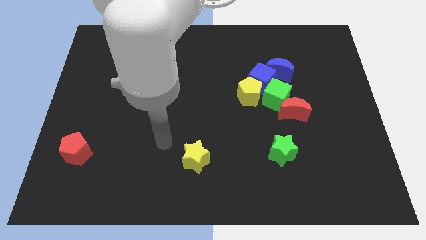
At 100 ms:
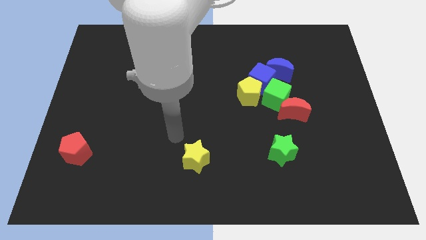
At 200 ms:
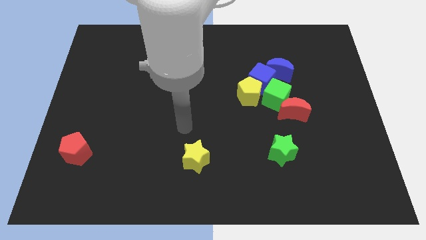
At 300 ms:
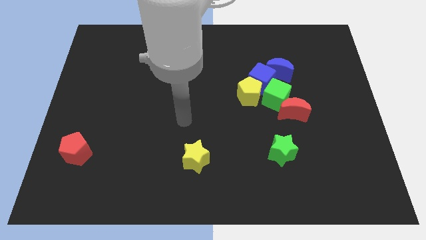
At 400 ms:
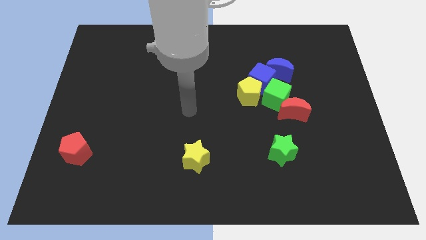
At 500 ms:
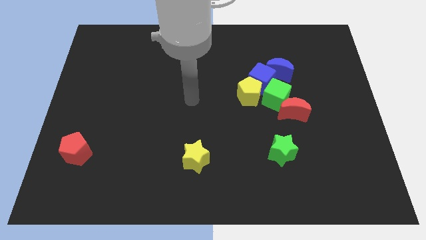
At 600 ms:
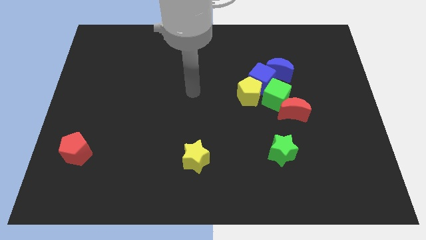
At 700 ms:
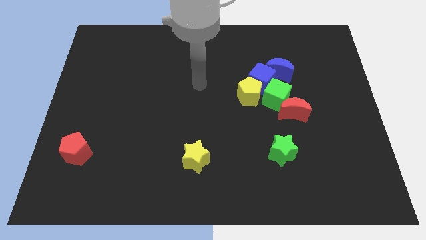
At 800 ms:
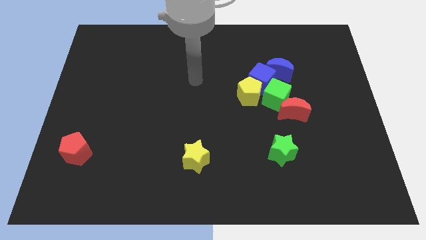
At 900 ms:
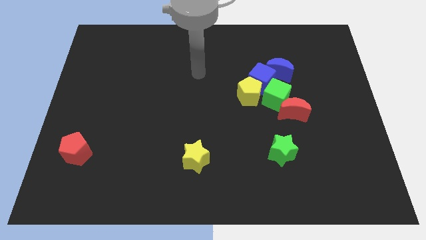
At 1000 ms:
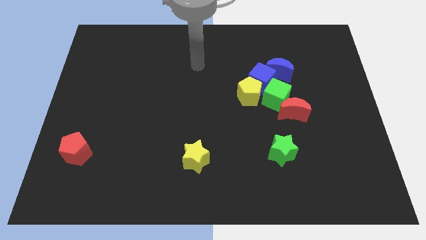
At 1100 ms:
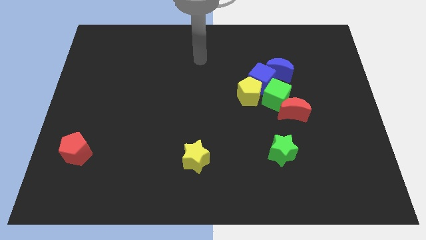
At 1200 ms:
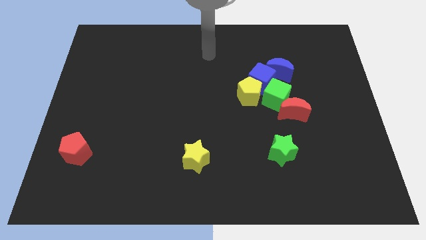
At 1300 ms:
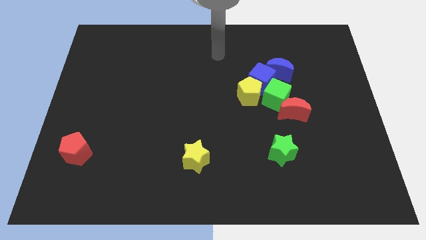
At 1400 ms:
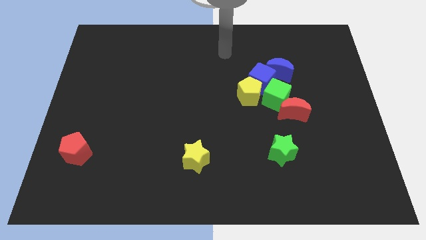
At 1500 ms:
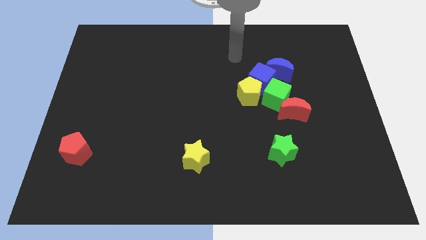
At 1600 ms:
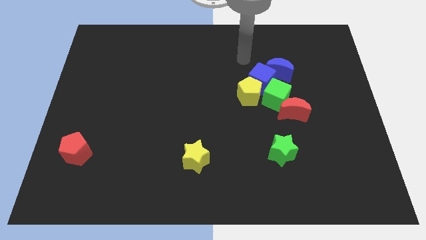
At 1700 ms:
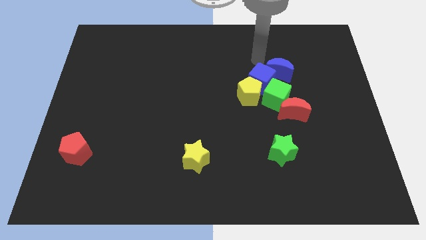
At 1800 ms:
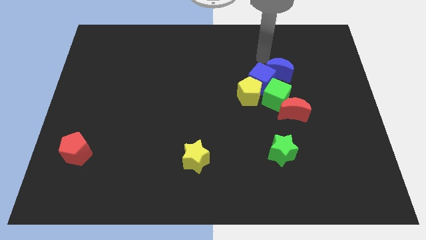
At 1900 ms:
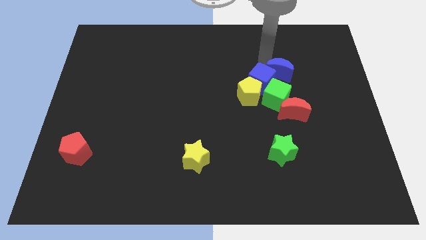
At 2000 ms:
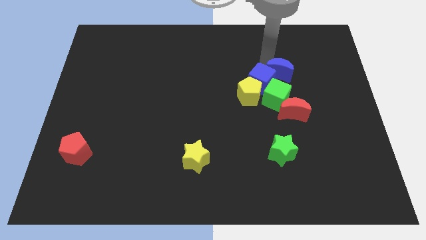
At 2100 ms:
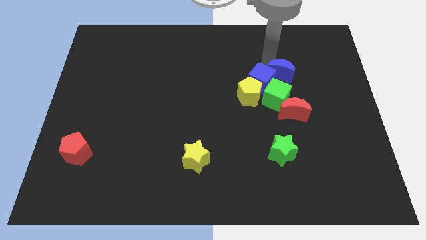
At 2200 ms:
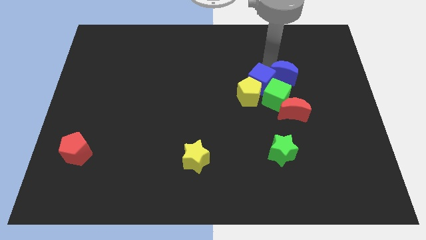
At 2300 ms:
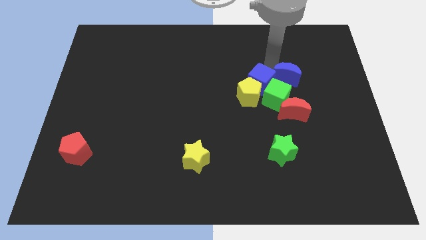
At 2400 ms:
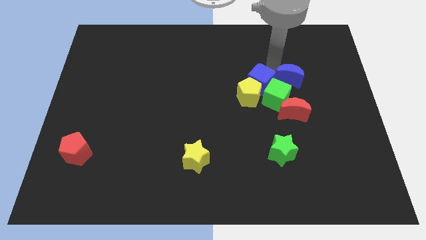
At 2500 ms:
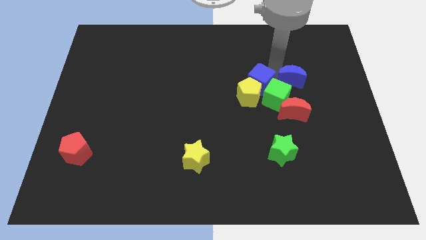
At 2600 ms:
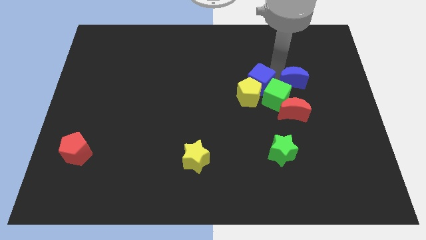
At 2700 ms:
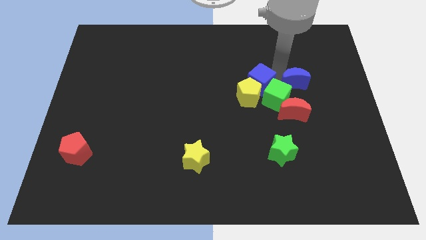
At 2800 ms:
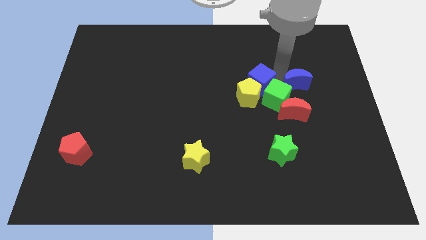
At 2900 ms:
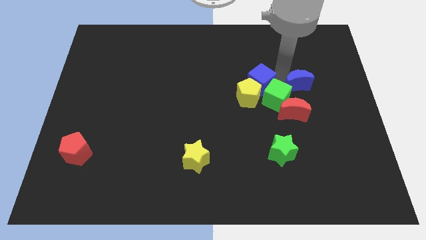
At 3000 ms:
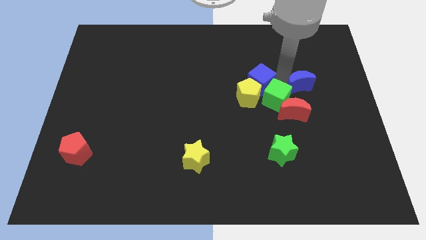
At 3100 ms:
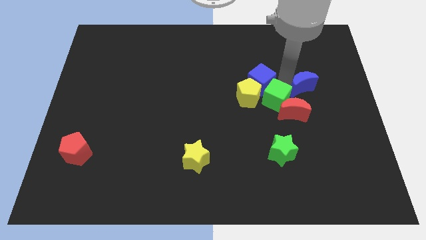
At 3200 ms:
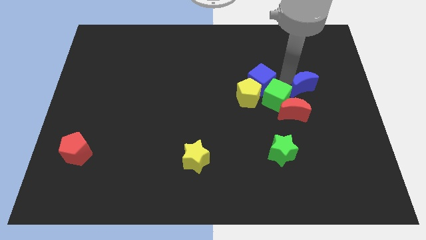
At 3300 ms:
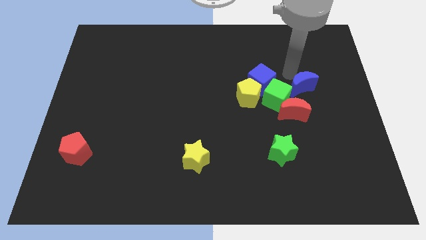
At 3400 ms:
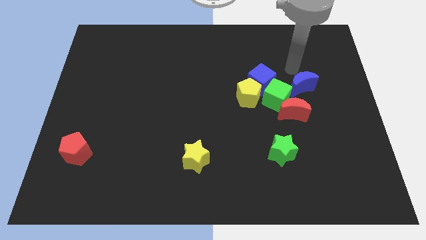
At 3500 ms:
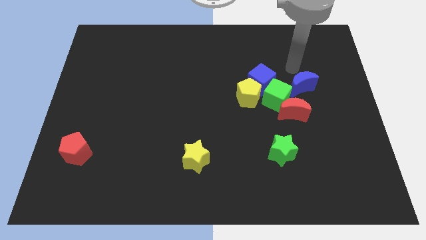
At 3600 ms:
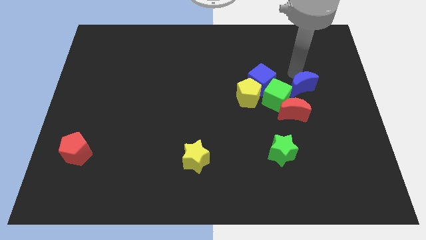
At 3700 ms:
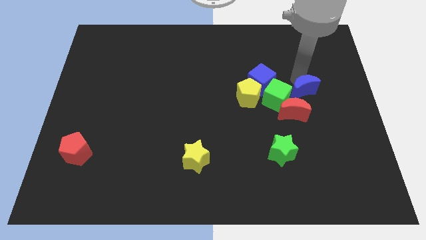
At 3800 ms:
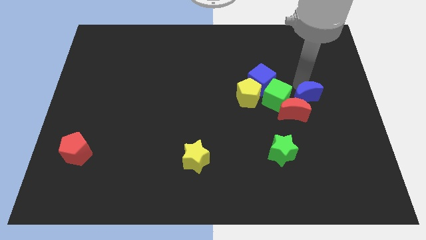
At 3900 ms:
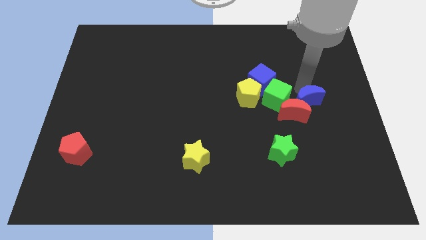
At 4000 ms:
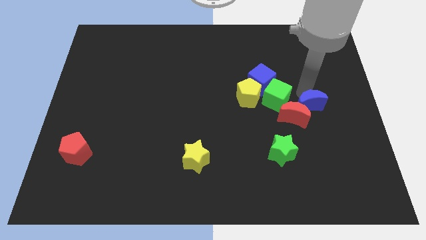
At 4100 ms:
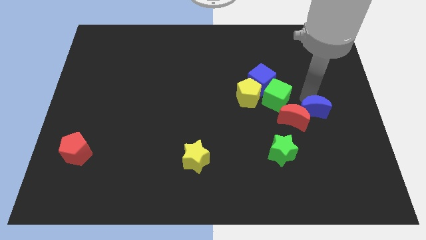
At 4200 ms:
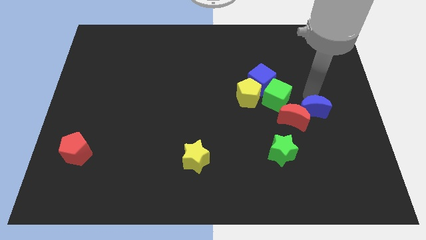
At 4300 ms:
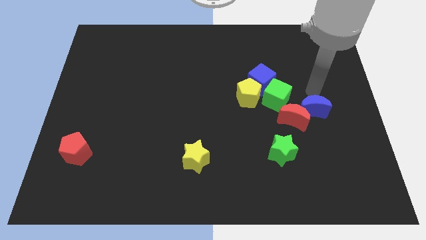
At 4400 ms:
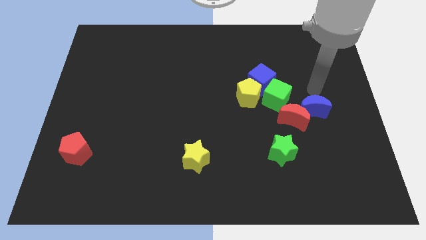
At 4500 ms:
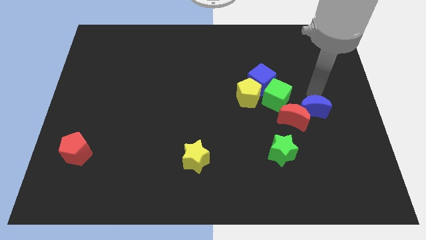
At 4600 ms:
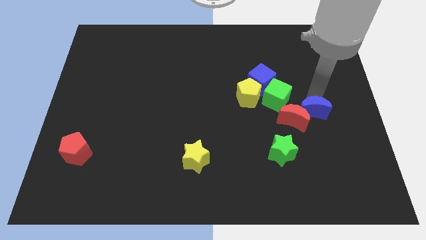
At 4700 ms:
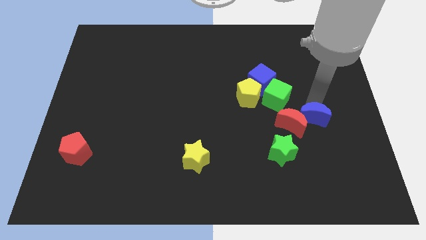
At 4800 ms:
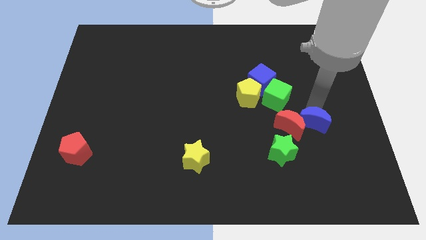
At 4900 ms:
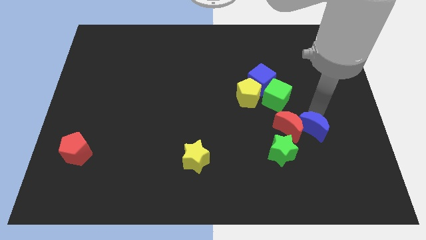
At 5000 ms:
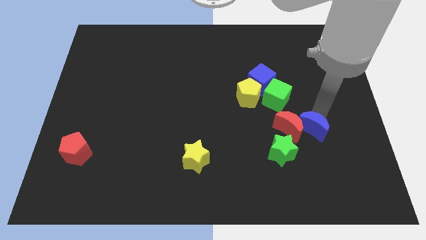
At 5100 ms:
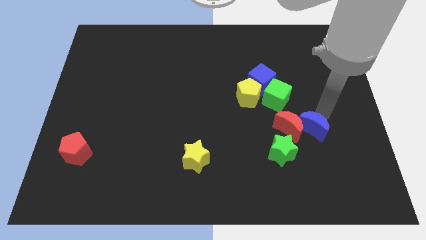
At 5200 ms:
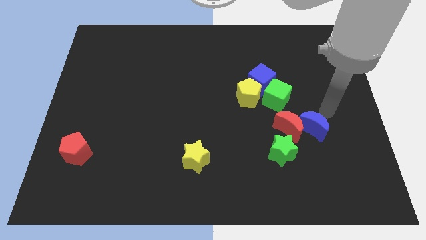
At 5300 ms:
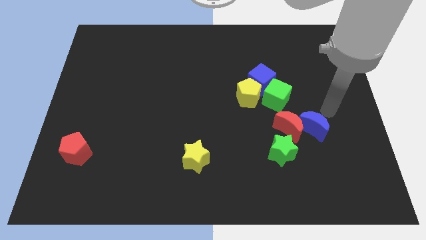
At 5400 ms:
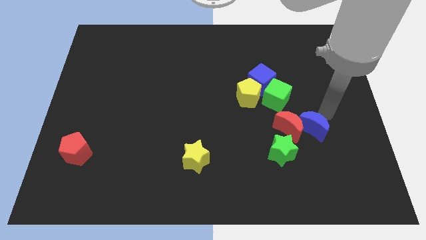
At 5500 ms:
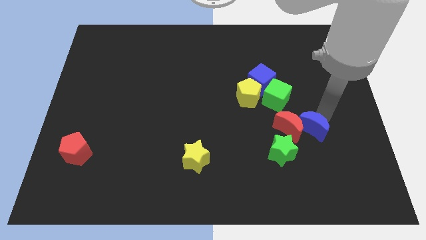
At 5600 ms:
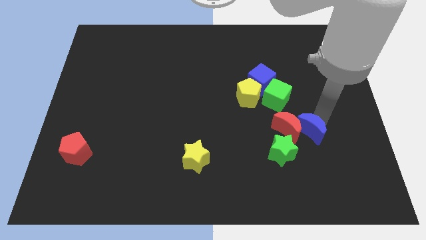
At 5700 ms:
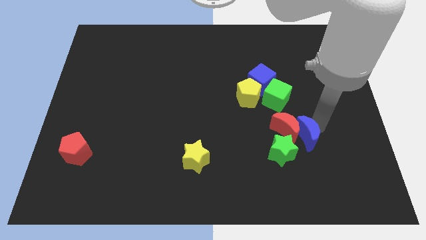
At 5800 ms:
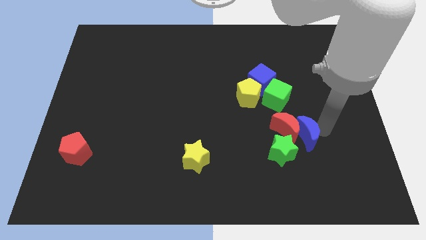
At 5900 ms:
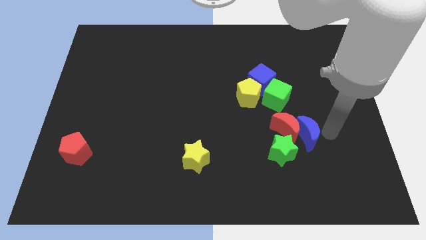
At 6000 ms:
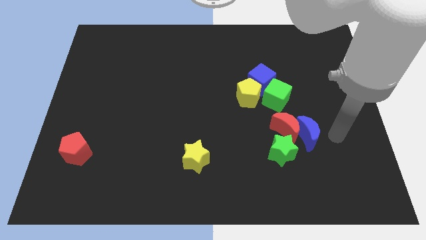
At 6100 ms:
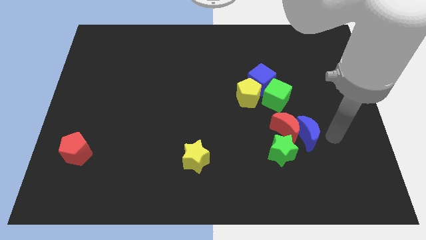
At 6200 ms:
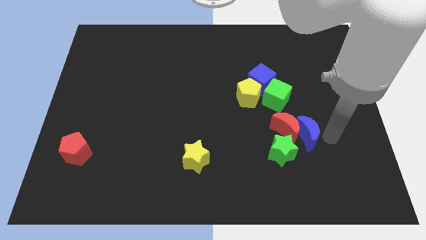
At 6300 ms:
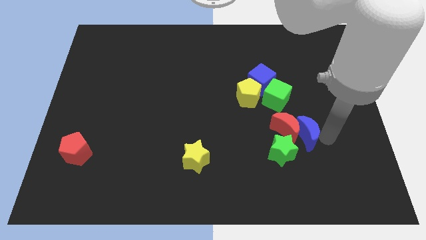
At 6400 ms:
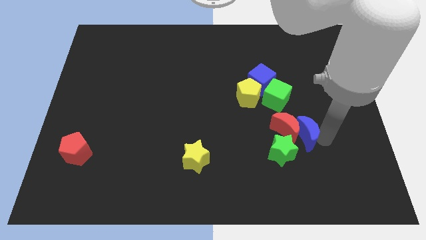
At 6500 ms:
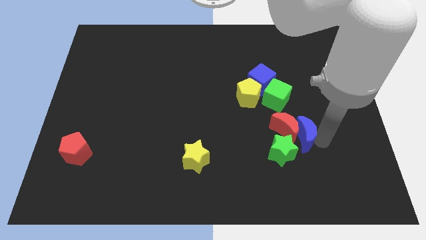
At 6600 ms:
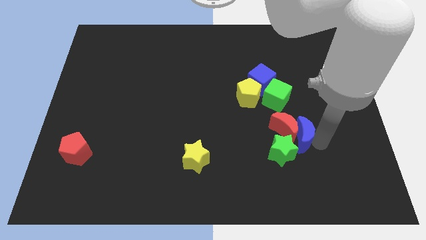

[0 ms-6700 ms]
put the blue moon to the bottom side of the green cube
